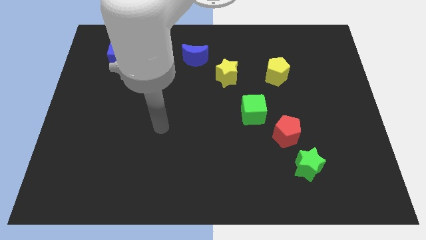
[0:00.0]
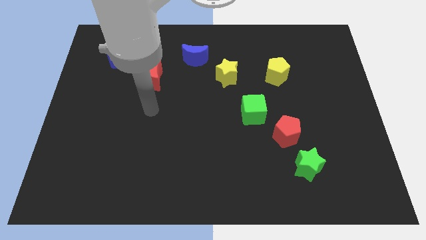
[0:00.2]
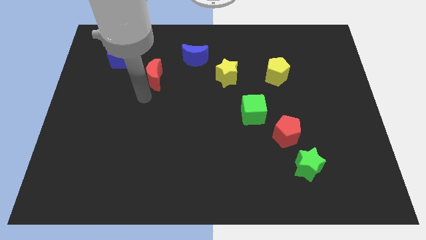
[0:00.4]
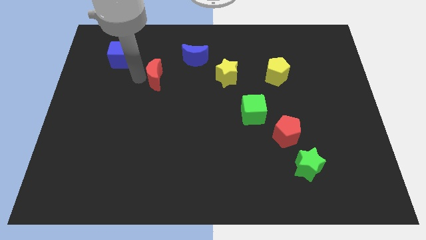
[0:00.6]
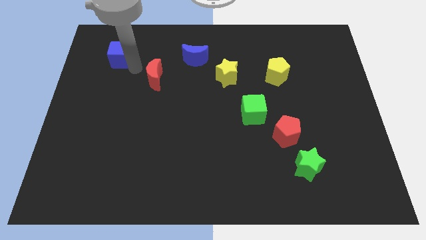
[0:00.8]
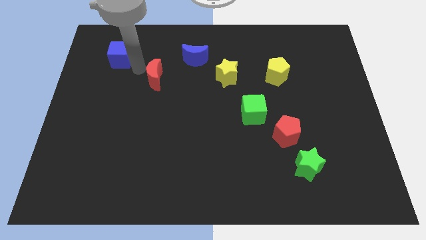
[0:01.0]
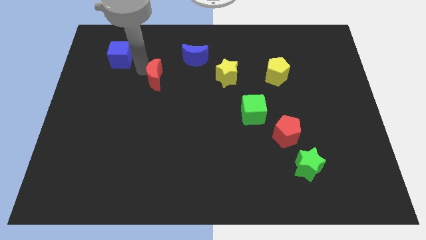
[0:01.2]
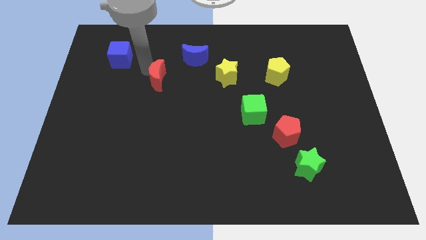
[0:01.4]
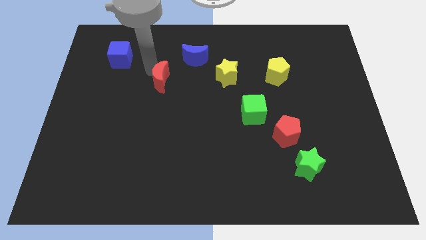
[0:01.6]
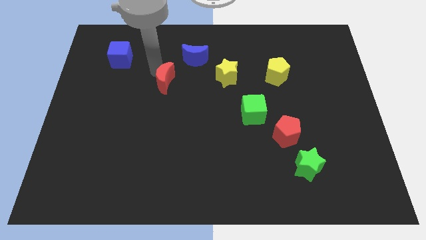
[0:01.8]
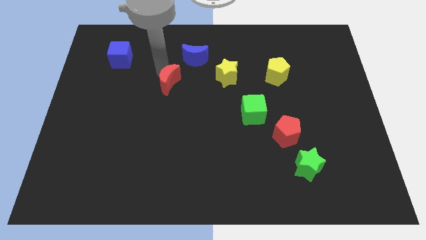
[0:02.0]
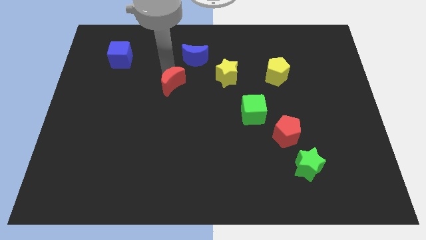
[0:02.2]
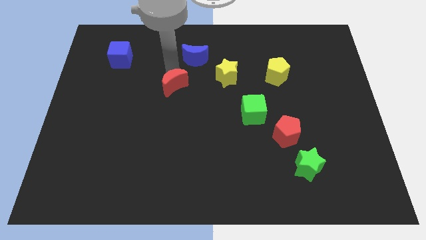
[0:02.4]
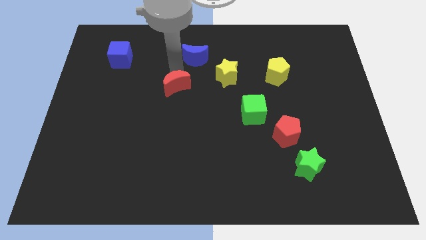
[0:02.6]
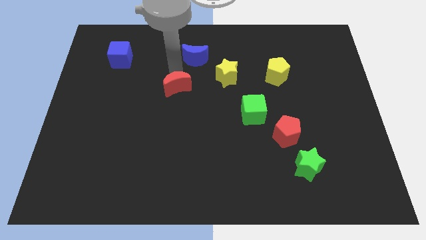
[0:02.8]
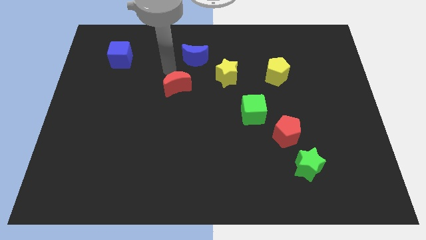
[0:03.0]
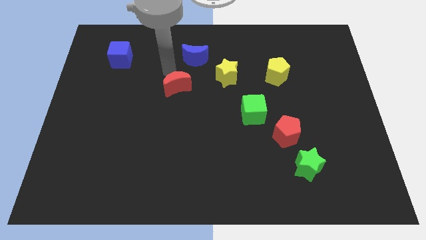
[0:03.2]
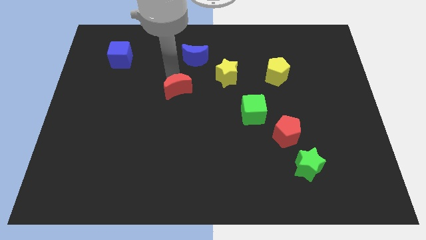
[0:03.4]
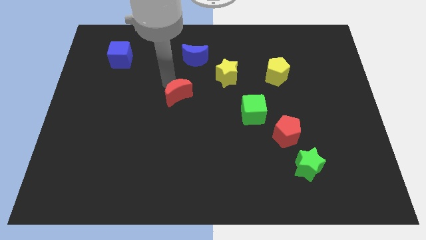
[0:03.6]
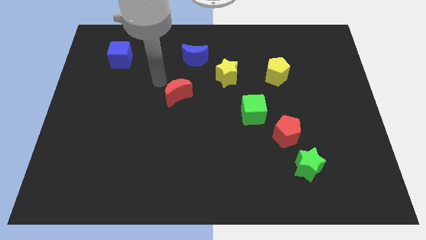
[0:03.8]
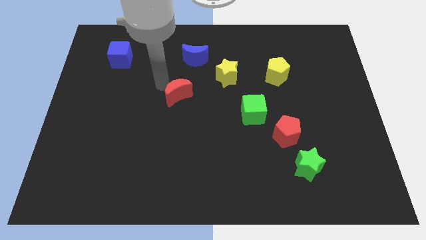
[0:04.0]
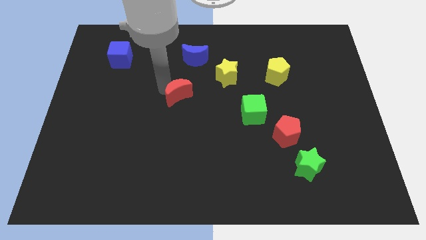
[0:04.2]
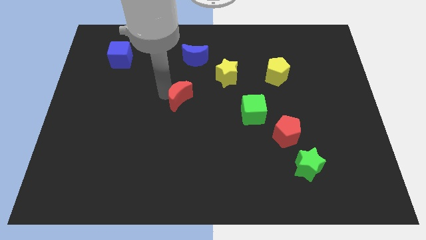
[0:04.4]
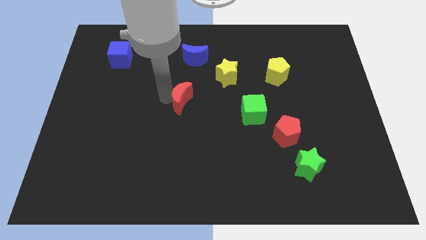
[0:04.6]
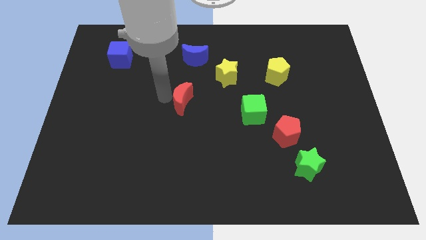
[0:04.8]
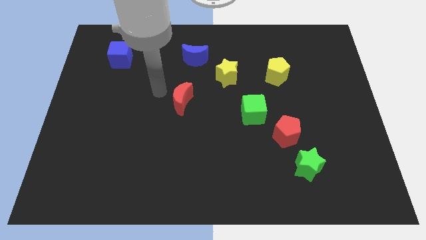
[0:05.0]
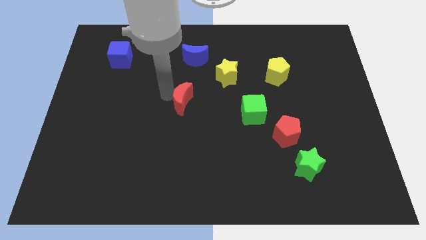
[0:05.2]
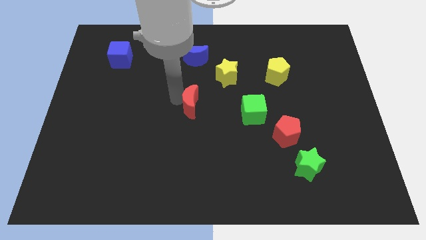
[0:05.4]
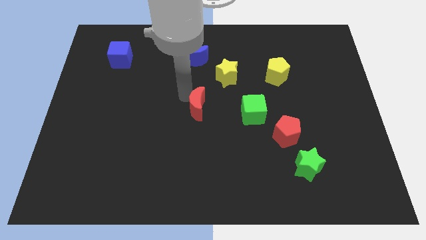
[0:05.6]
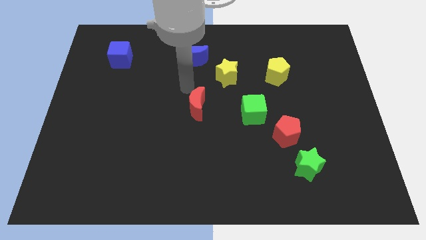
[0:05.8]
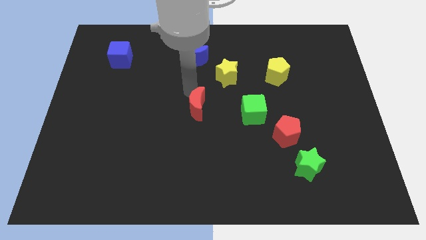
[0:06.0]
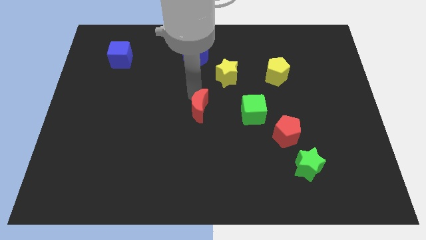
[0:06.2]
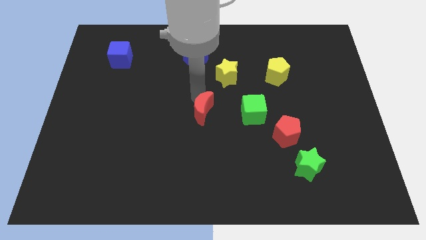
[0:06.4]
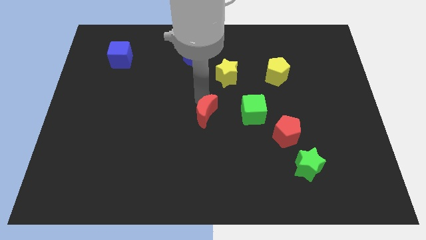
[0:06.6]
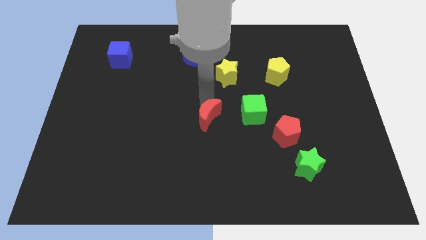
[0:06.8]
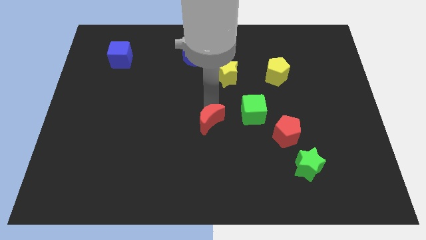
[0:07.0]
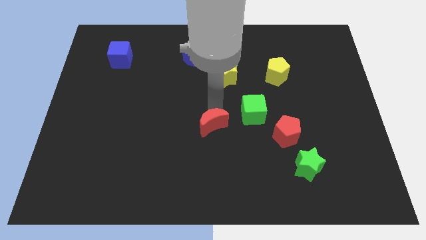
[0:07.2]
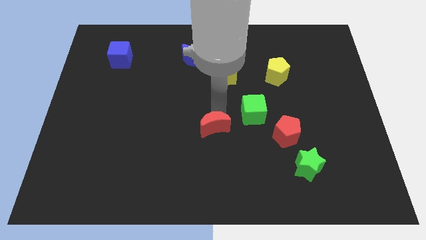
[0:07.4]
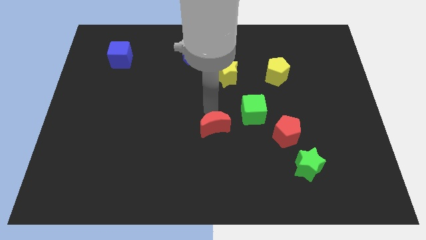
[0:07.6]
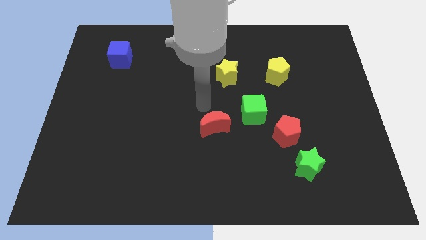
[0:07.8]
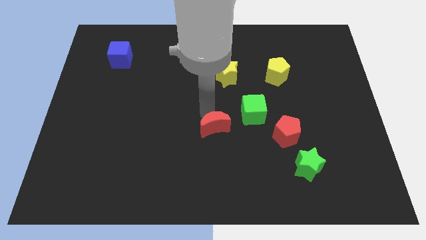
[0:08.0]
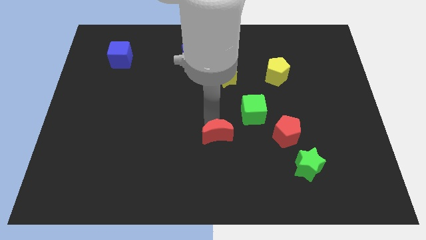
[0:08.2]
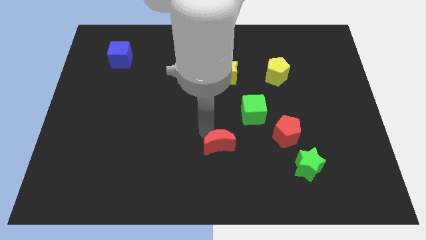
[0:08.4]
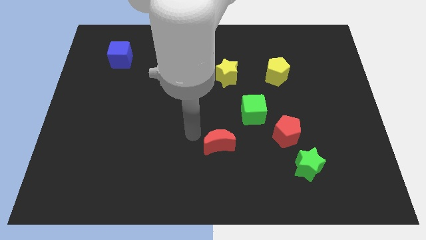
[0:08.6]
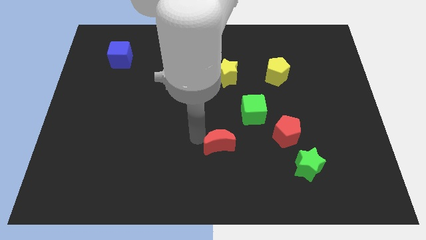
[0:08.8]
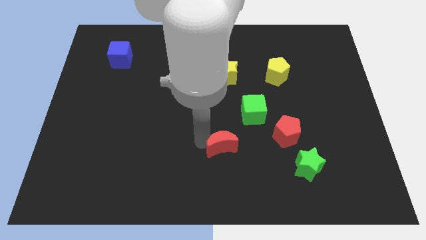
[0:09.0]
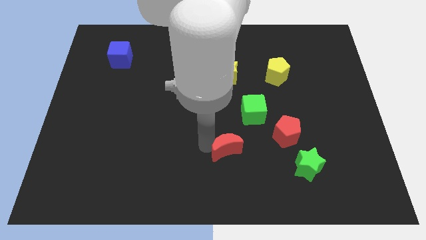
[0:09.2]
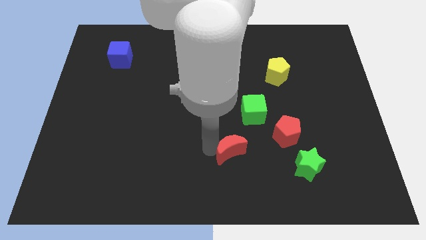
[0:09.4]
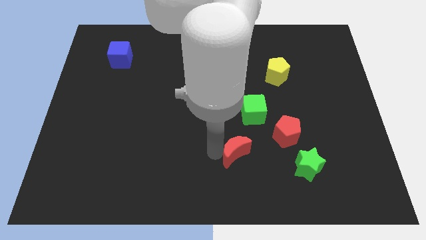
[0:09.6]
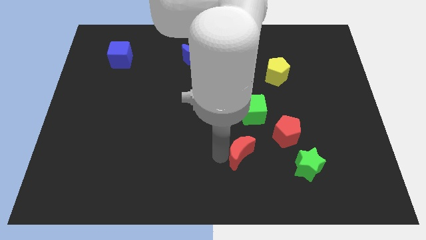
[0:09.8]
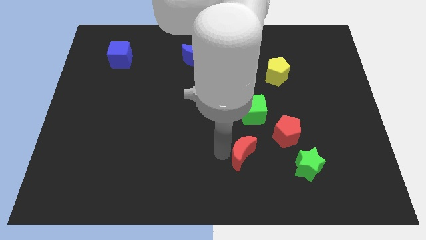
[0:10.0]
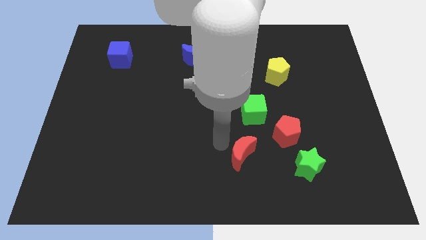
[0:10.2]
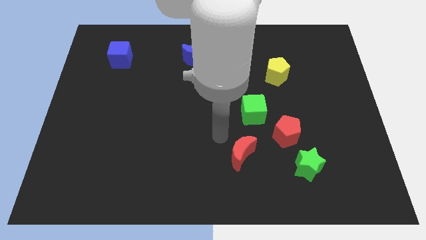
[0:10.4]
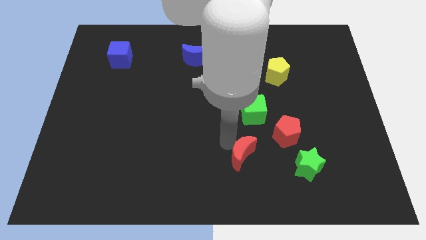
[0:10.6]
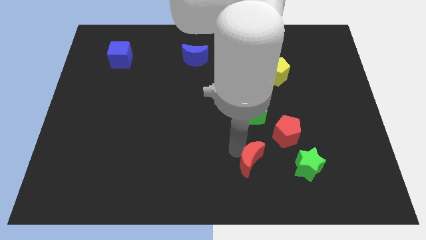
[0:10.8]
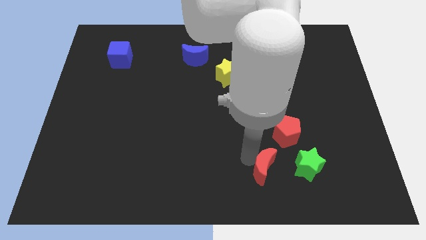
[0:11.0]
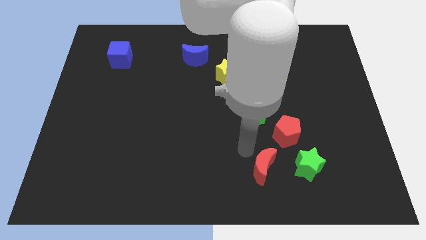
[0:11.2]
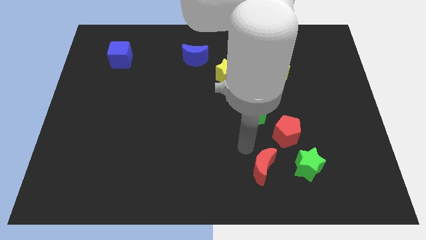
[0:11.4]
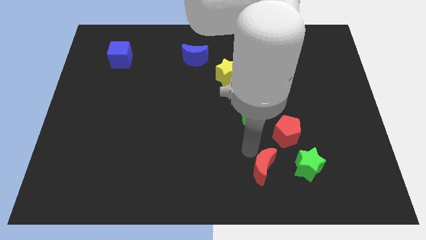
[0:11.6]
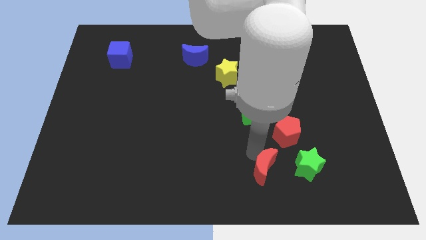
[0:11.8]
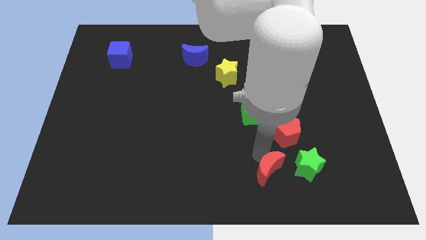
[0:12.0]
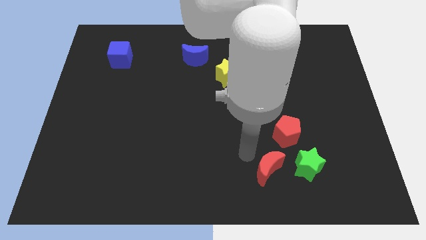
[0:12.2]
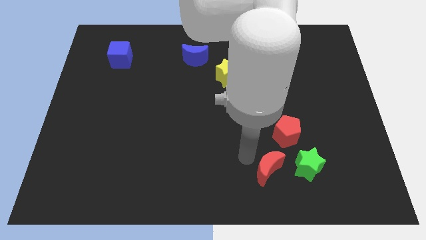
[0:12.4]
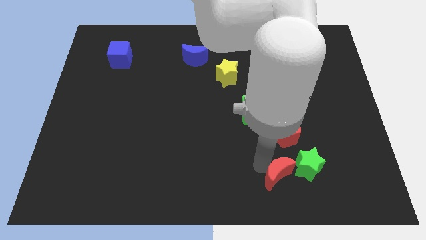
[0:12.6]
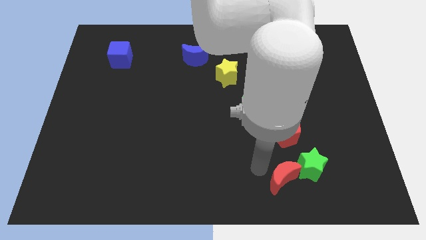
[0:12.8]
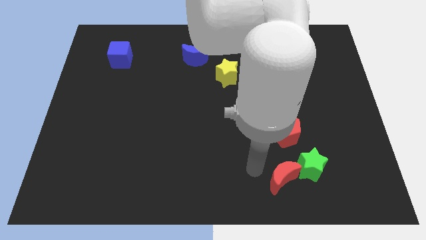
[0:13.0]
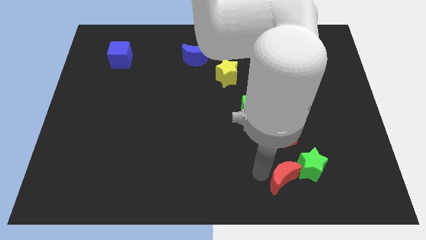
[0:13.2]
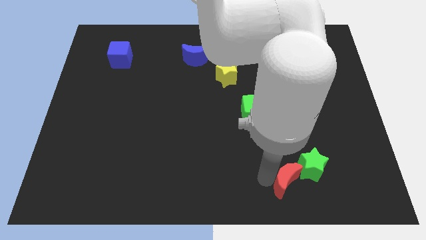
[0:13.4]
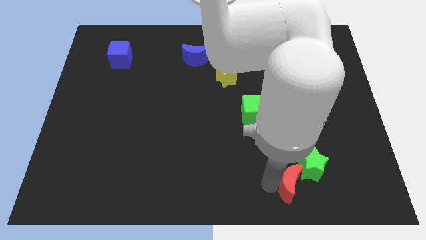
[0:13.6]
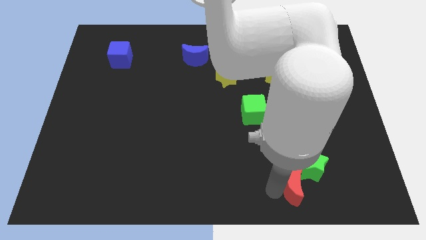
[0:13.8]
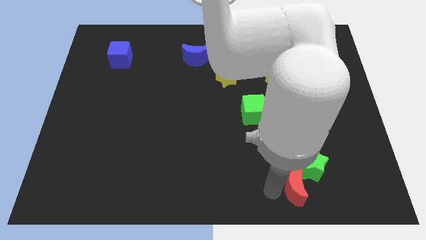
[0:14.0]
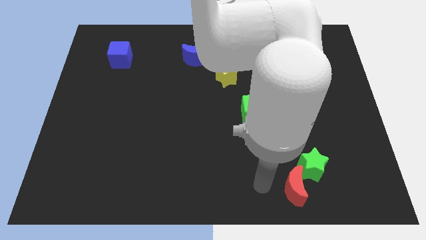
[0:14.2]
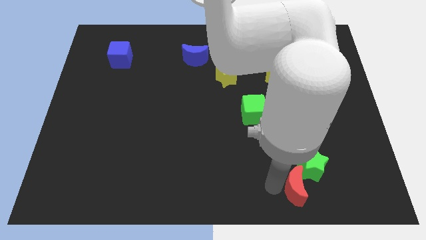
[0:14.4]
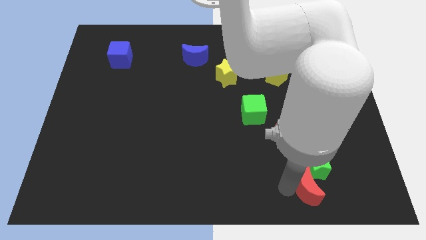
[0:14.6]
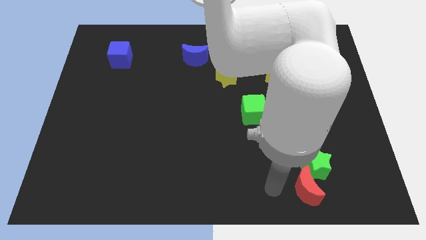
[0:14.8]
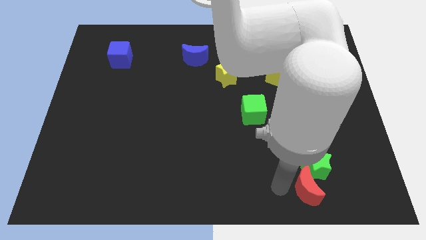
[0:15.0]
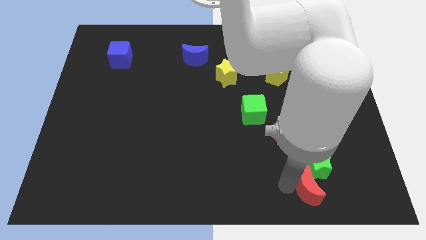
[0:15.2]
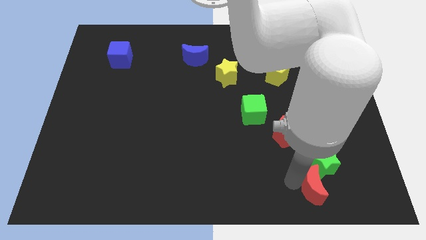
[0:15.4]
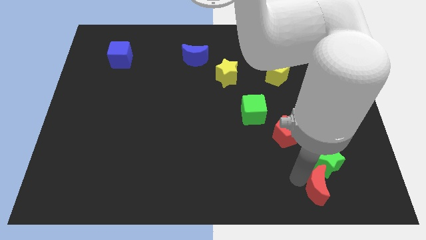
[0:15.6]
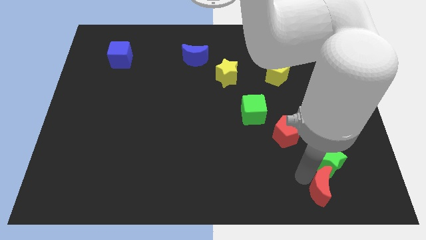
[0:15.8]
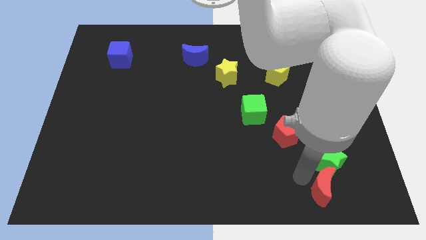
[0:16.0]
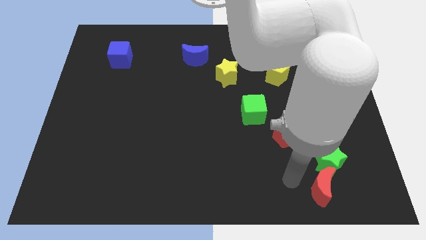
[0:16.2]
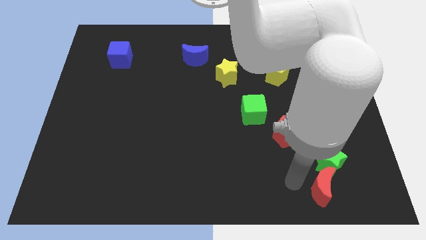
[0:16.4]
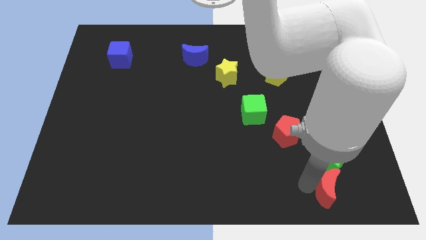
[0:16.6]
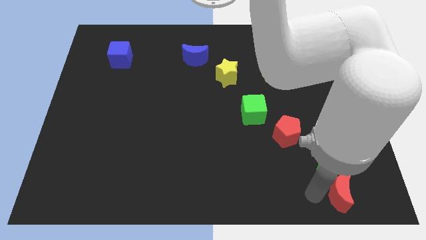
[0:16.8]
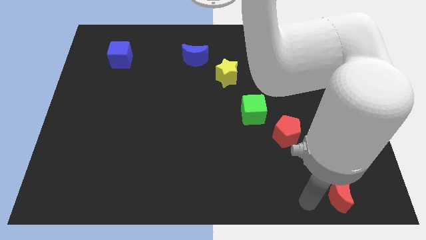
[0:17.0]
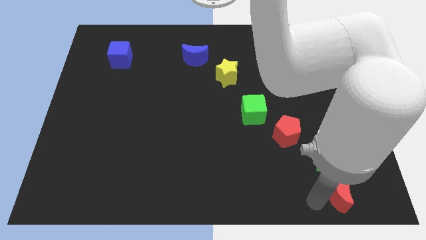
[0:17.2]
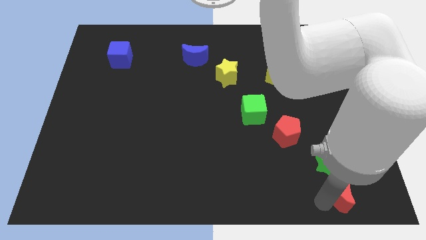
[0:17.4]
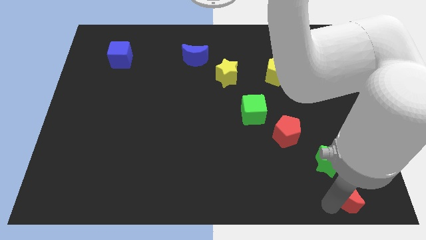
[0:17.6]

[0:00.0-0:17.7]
slide the red moon to the bottom right of the board
